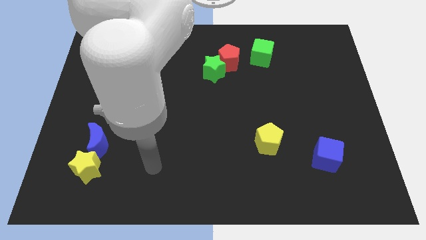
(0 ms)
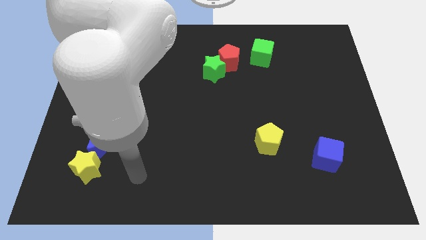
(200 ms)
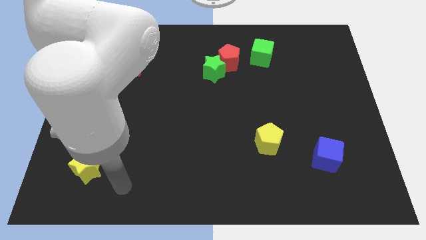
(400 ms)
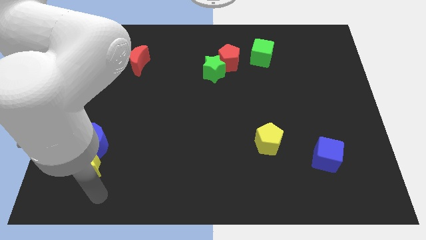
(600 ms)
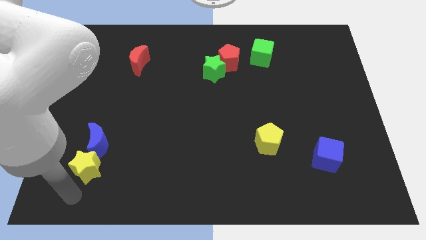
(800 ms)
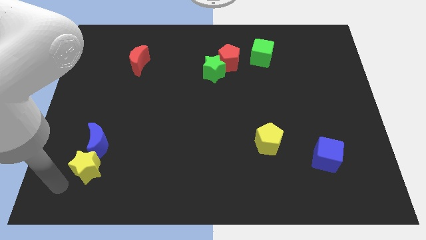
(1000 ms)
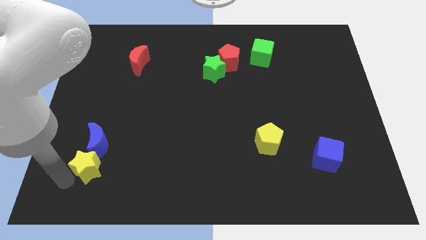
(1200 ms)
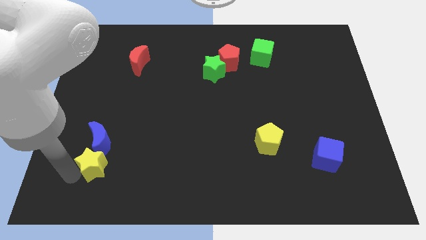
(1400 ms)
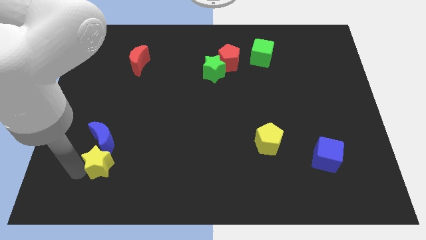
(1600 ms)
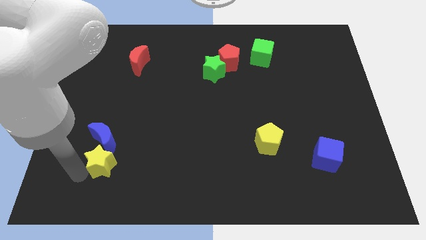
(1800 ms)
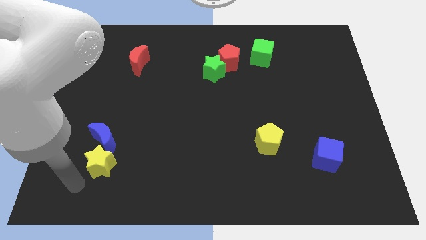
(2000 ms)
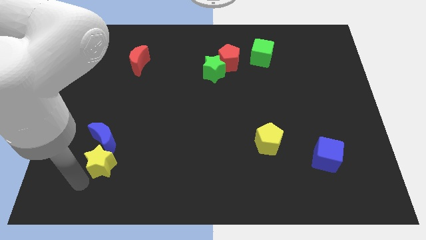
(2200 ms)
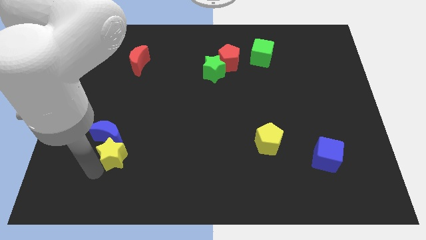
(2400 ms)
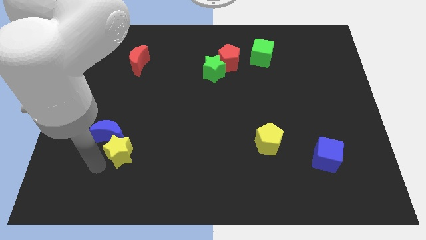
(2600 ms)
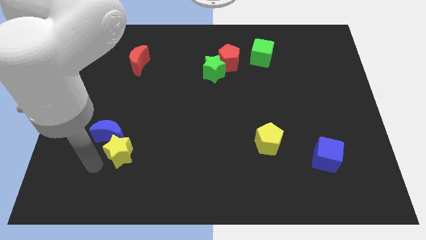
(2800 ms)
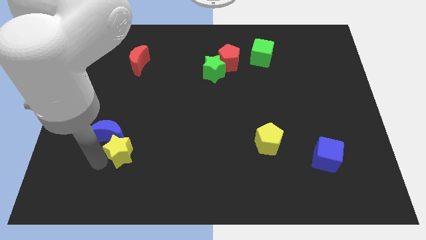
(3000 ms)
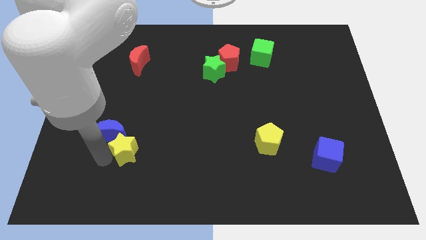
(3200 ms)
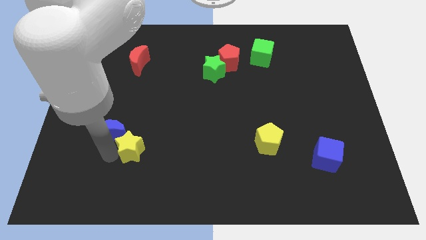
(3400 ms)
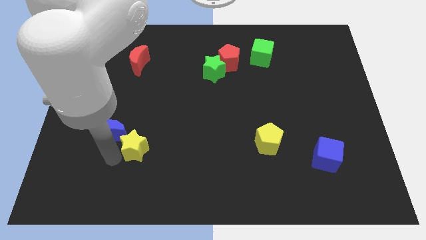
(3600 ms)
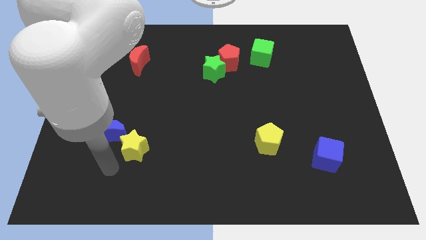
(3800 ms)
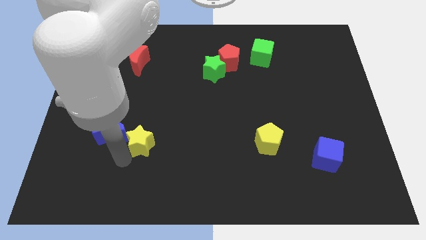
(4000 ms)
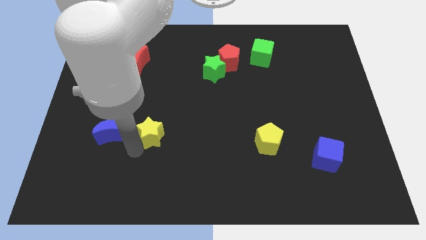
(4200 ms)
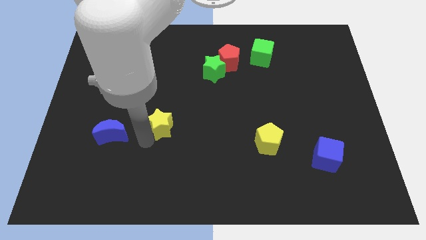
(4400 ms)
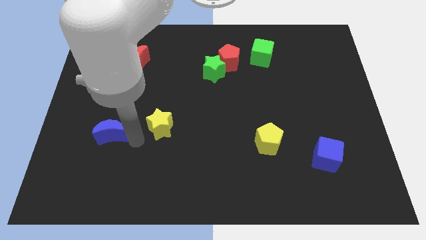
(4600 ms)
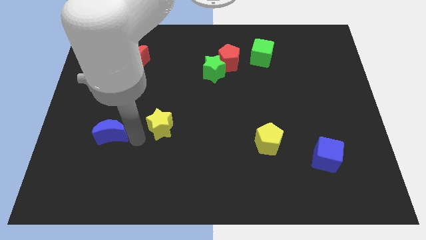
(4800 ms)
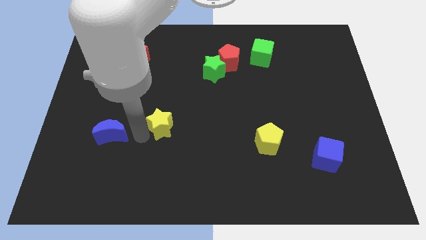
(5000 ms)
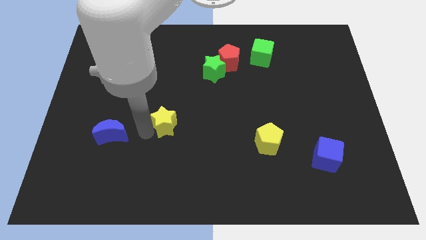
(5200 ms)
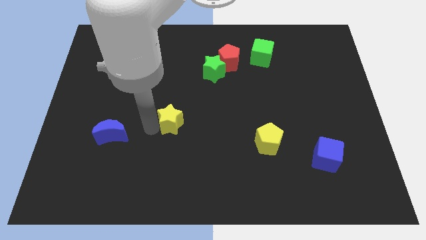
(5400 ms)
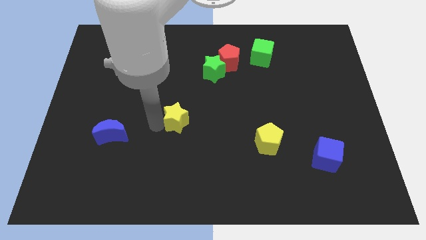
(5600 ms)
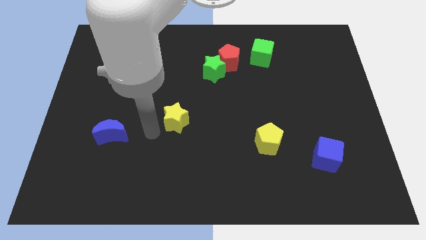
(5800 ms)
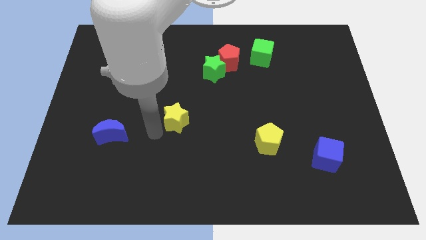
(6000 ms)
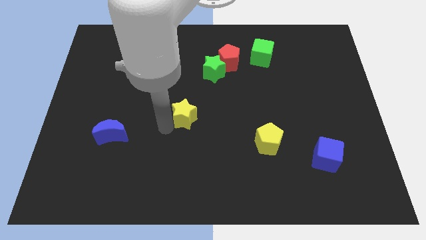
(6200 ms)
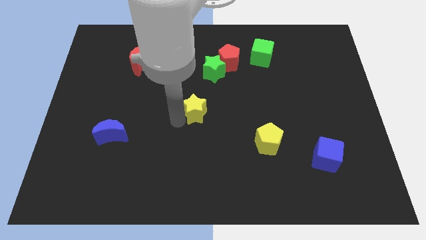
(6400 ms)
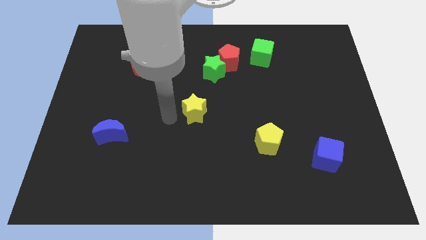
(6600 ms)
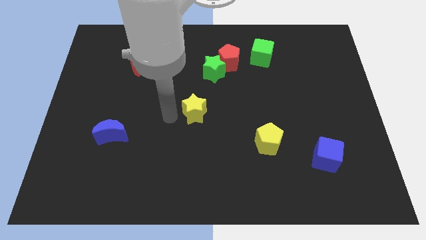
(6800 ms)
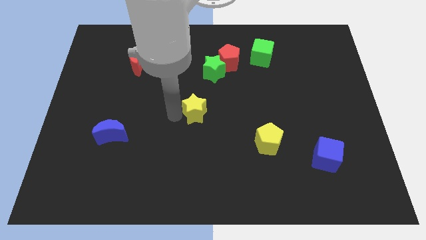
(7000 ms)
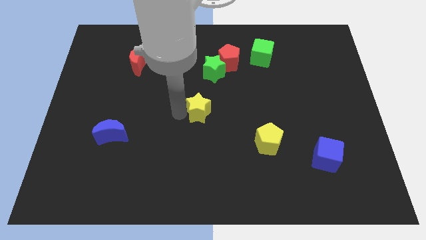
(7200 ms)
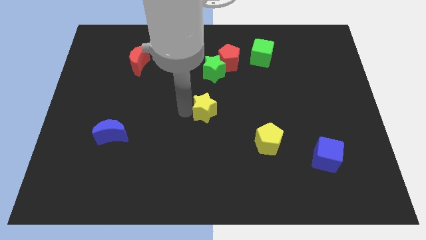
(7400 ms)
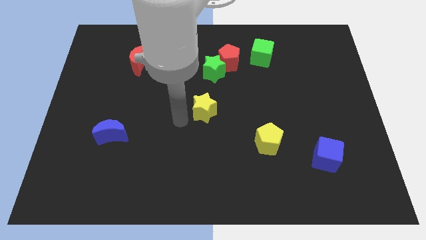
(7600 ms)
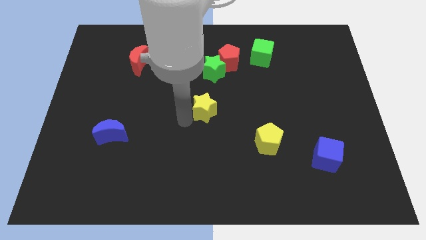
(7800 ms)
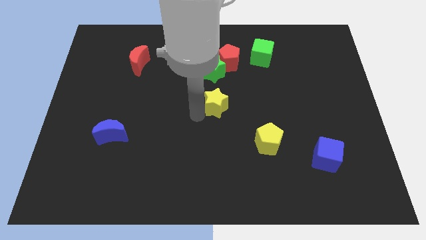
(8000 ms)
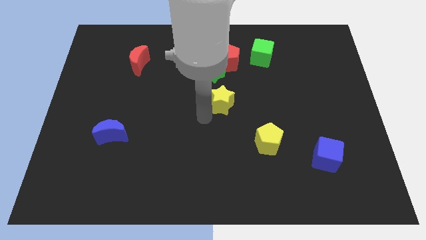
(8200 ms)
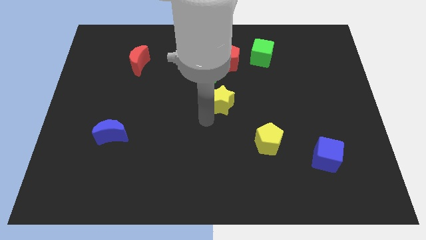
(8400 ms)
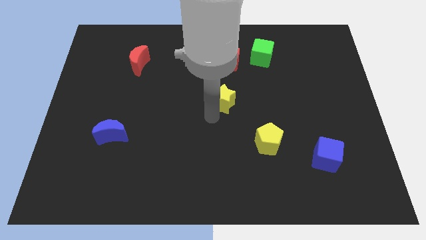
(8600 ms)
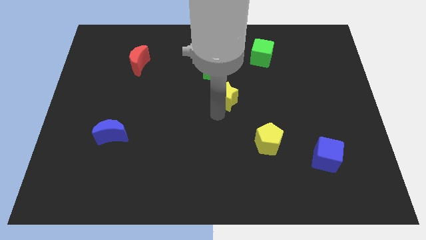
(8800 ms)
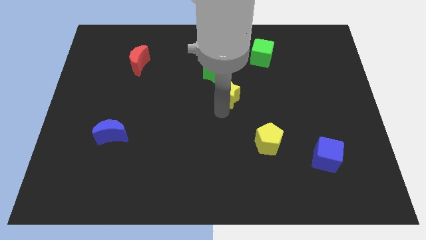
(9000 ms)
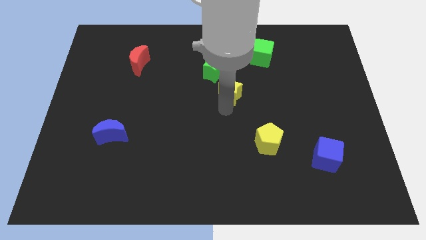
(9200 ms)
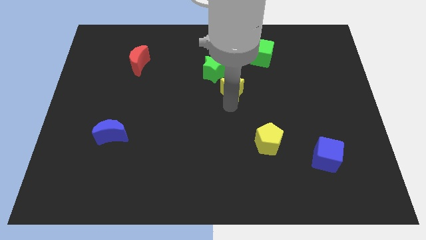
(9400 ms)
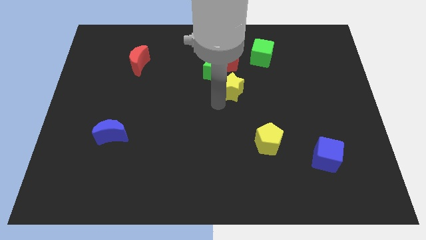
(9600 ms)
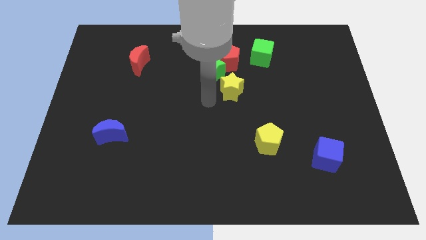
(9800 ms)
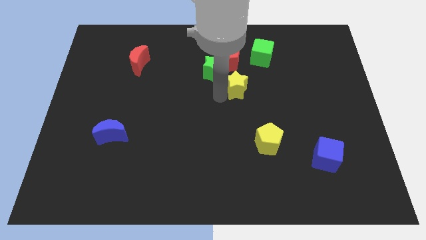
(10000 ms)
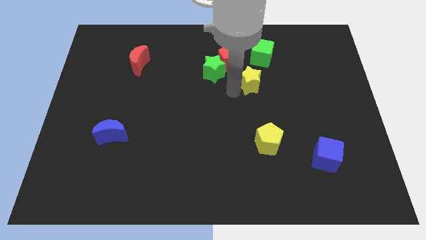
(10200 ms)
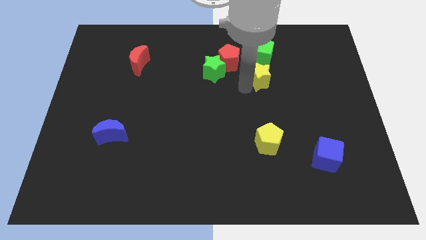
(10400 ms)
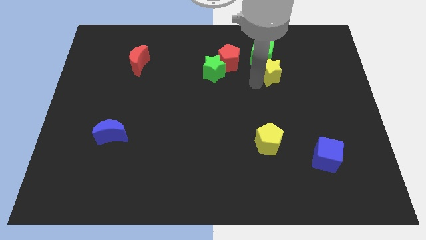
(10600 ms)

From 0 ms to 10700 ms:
put the yellow star to the bottom right of the green cube

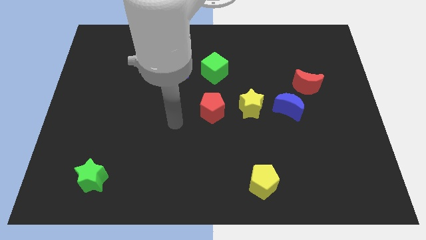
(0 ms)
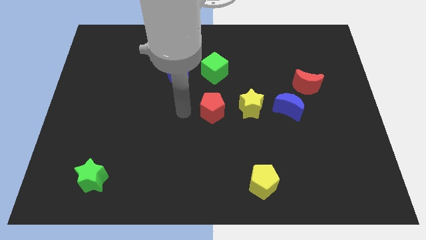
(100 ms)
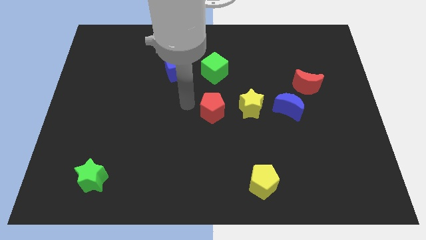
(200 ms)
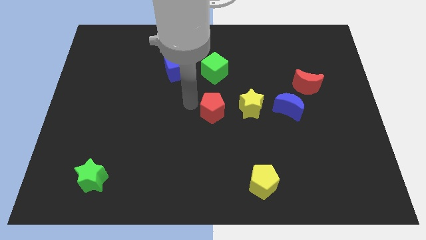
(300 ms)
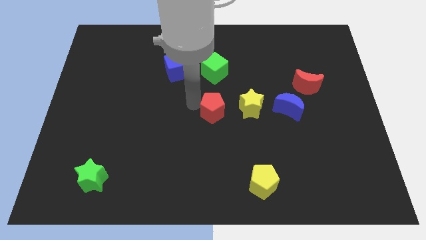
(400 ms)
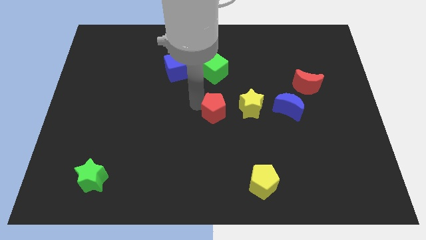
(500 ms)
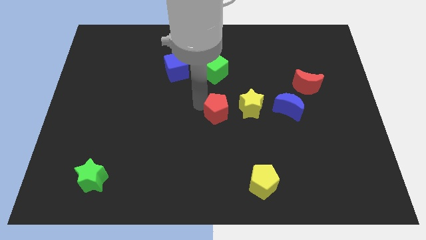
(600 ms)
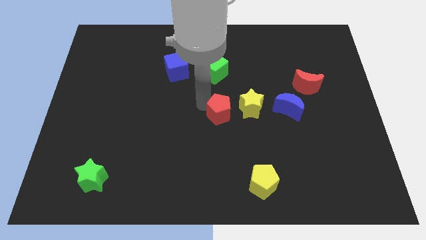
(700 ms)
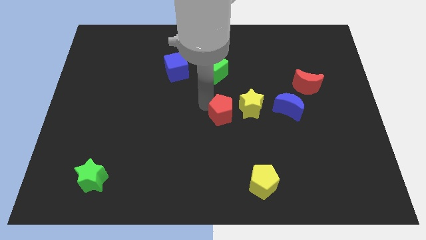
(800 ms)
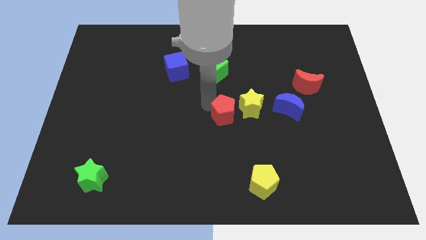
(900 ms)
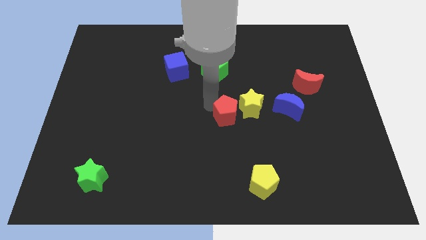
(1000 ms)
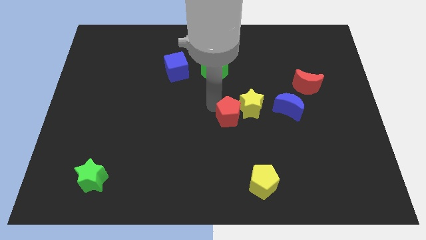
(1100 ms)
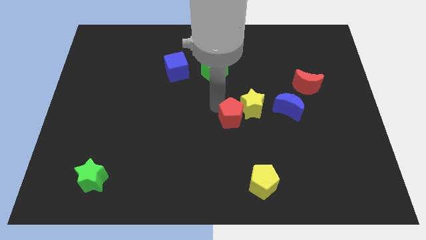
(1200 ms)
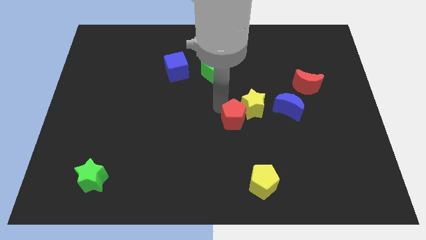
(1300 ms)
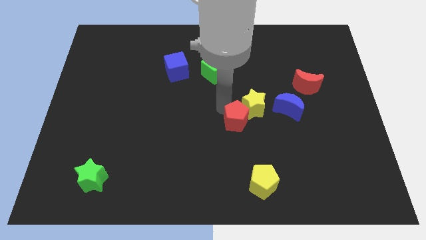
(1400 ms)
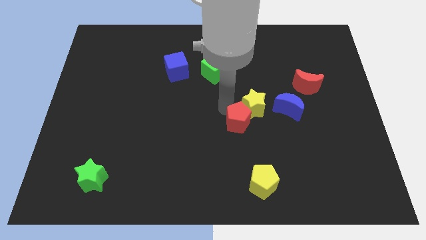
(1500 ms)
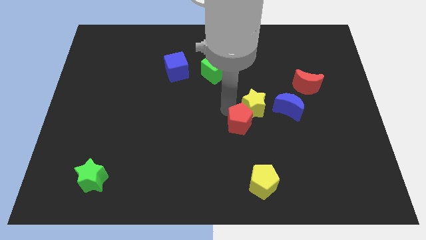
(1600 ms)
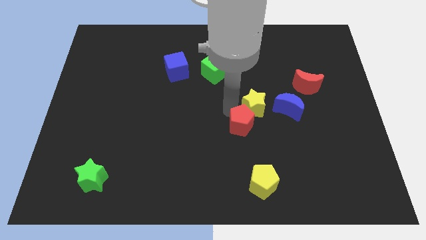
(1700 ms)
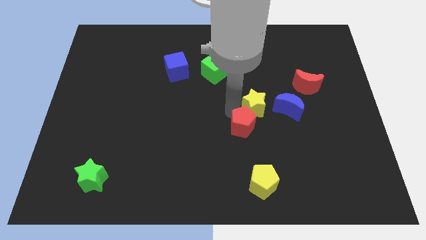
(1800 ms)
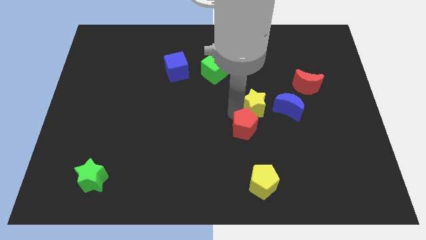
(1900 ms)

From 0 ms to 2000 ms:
put the red pentagon to the bottom left side of the blue moon
